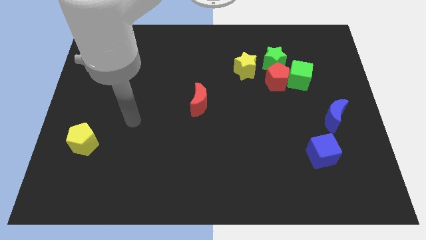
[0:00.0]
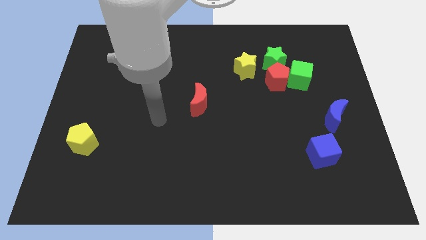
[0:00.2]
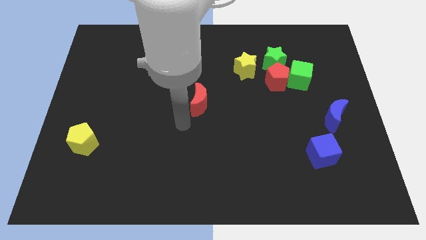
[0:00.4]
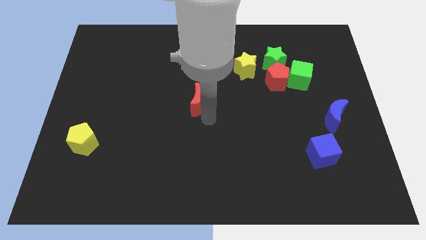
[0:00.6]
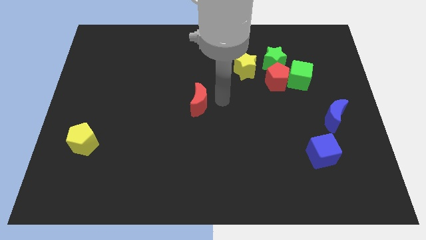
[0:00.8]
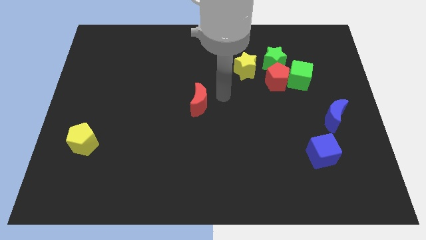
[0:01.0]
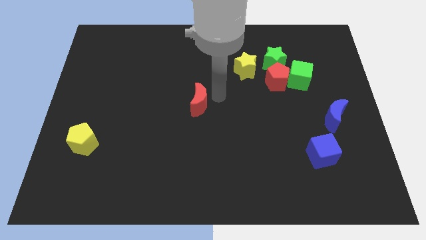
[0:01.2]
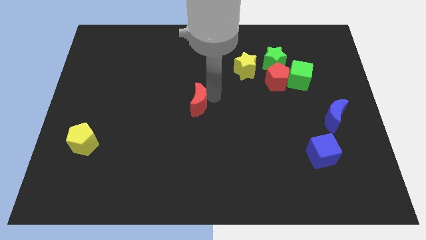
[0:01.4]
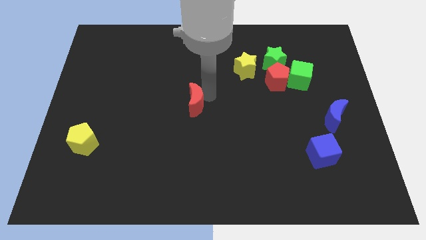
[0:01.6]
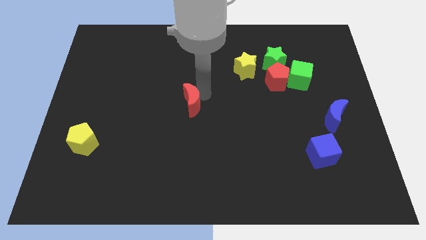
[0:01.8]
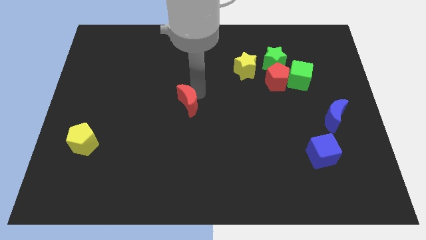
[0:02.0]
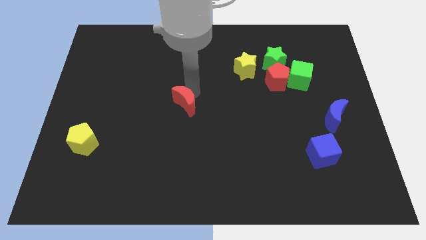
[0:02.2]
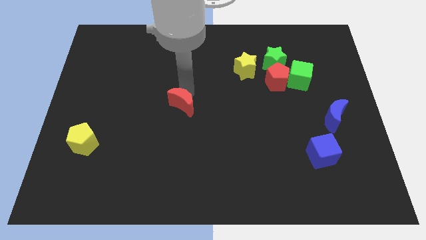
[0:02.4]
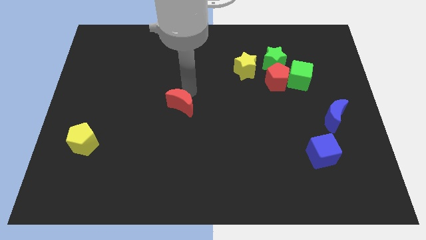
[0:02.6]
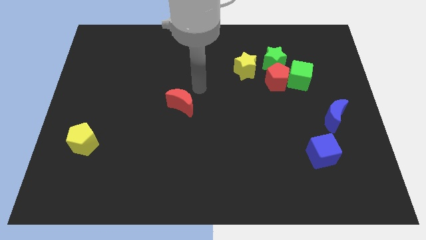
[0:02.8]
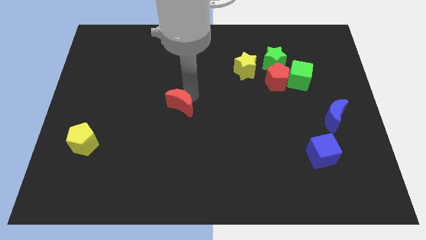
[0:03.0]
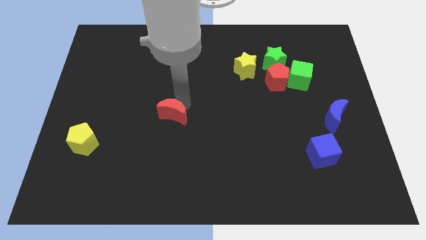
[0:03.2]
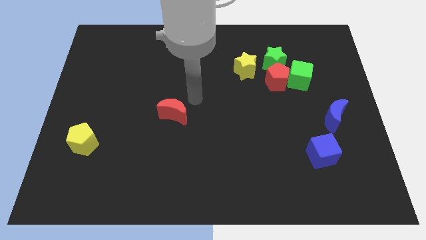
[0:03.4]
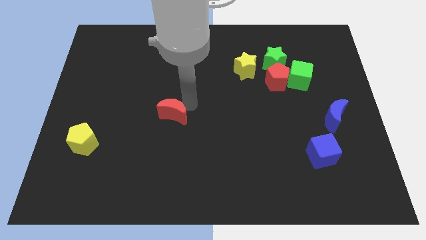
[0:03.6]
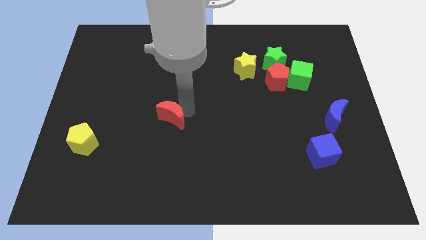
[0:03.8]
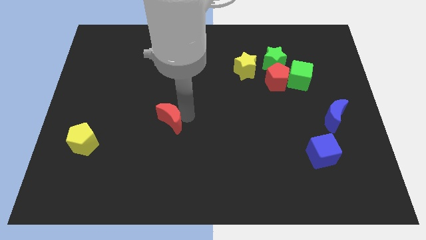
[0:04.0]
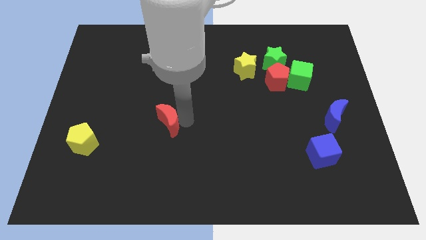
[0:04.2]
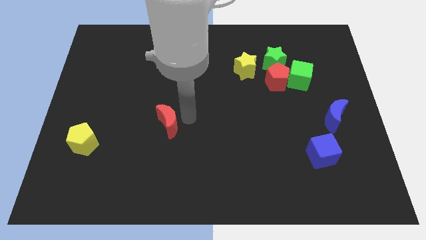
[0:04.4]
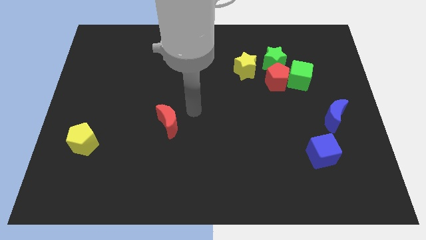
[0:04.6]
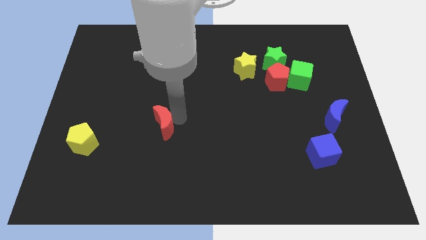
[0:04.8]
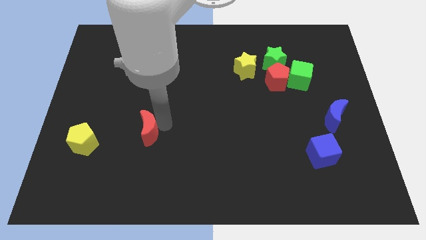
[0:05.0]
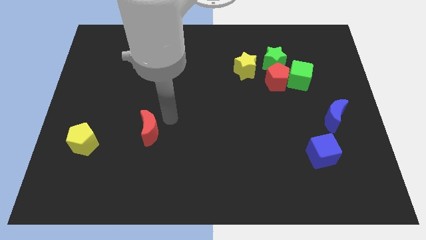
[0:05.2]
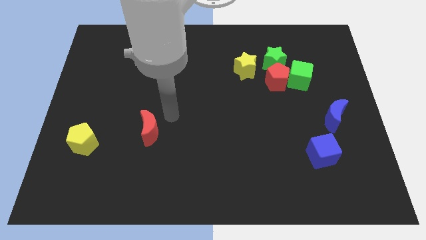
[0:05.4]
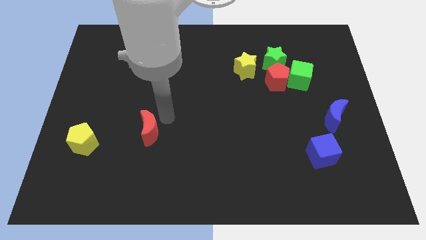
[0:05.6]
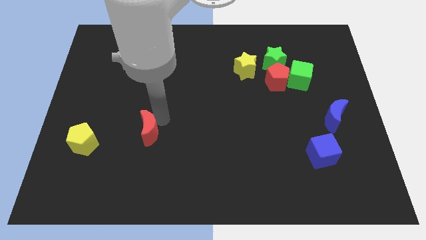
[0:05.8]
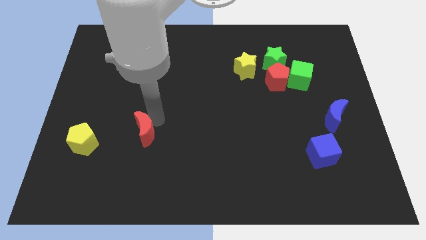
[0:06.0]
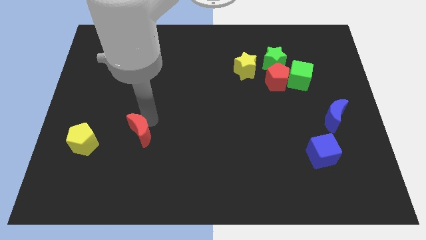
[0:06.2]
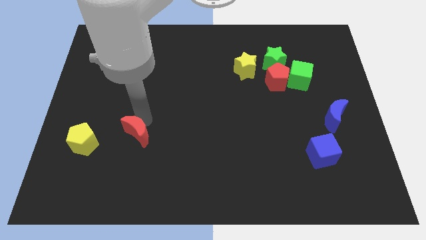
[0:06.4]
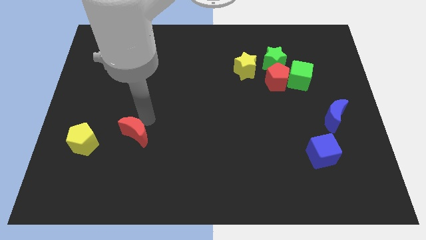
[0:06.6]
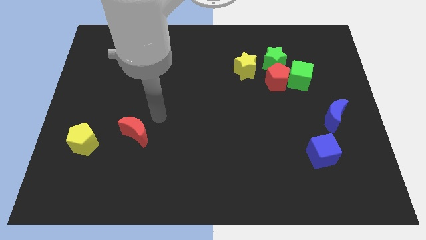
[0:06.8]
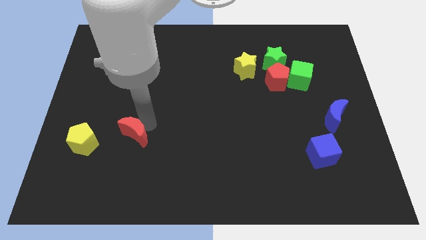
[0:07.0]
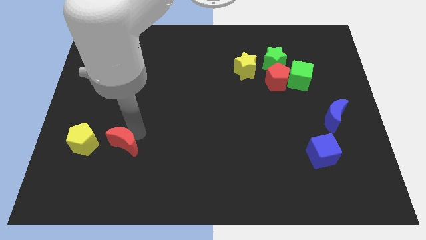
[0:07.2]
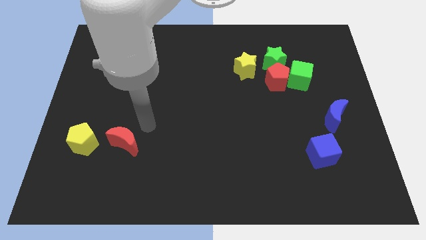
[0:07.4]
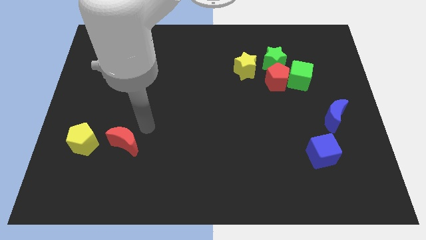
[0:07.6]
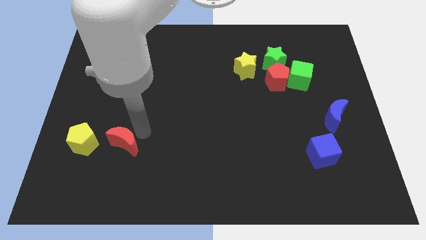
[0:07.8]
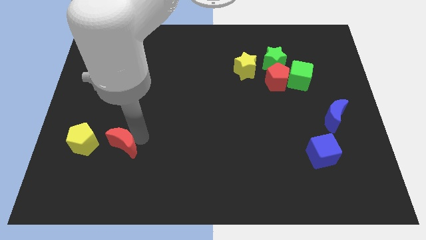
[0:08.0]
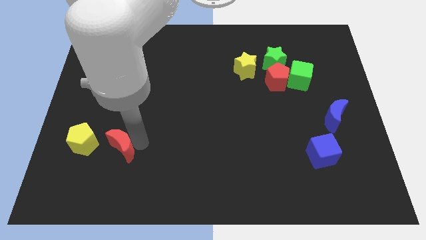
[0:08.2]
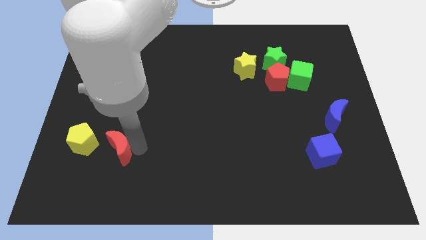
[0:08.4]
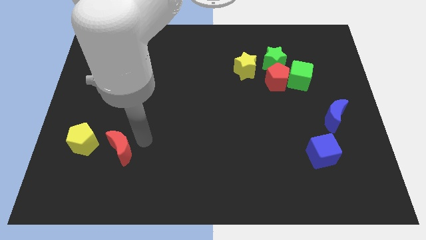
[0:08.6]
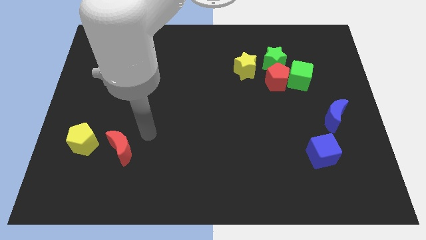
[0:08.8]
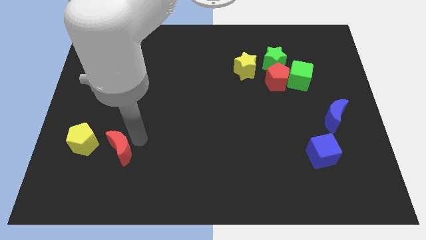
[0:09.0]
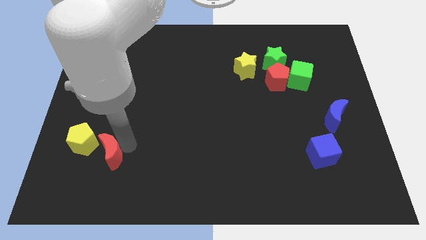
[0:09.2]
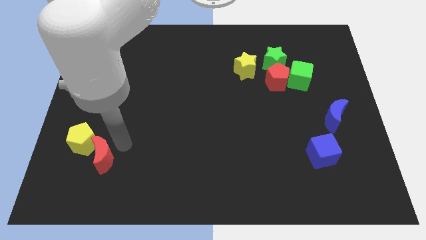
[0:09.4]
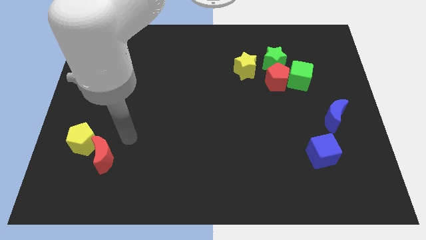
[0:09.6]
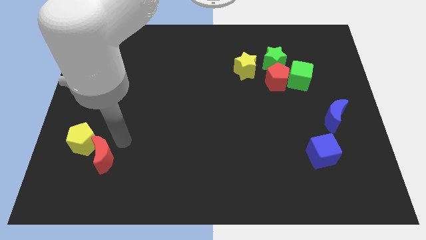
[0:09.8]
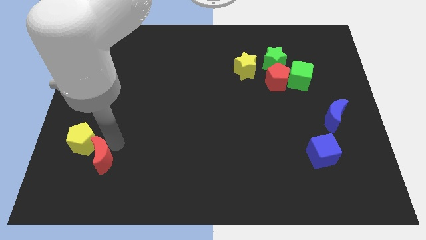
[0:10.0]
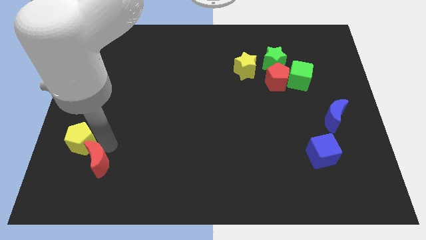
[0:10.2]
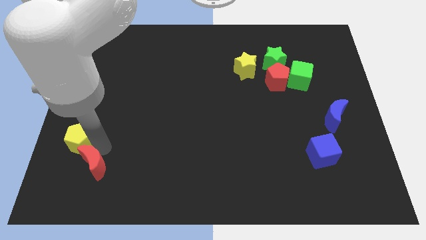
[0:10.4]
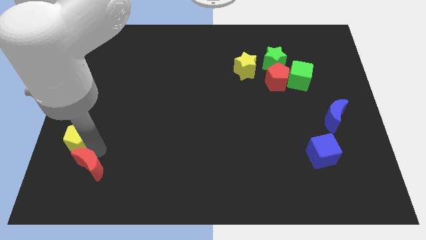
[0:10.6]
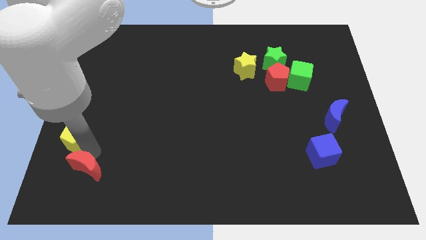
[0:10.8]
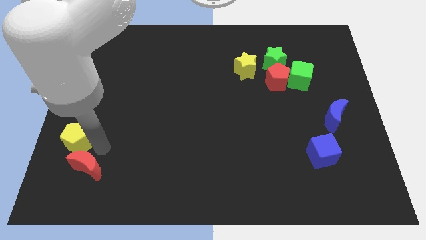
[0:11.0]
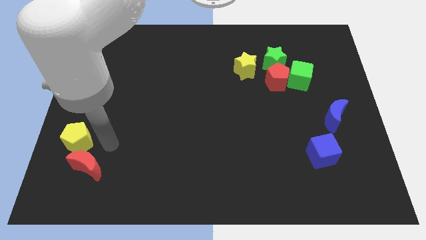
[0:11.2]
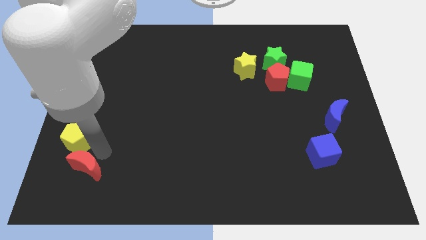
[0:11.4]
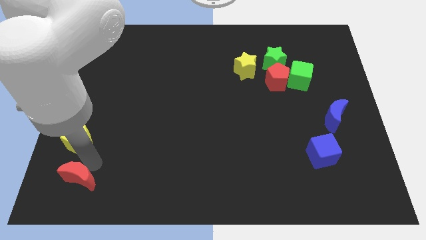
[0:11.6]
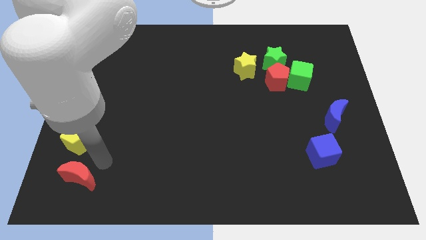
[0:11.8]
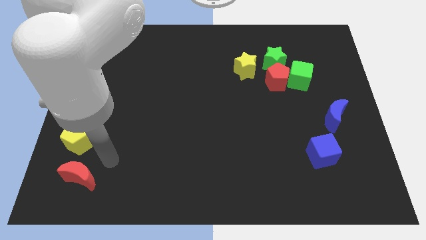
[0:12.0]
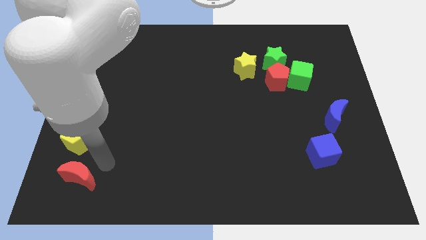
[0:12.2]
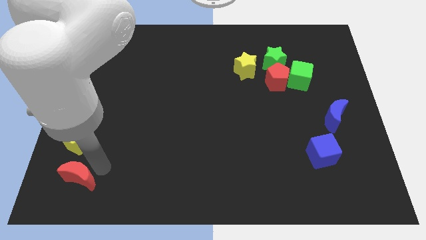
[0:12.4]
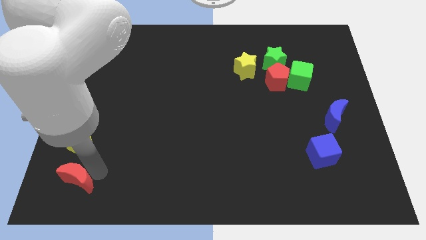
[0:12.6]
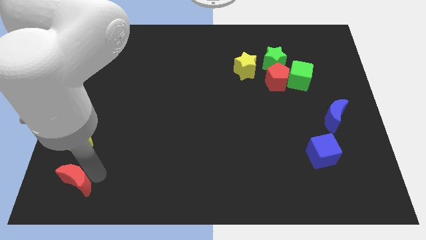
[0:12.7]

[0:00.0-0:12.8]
move the red moon to the lower left corner
